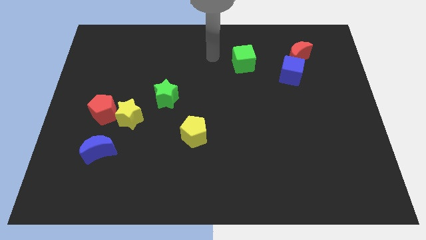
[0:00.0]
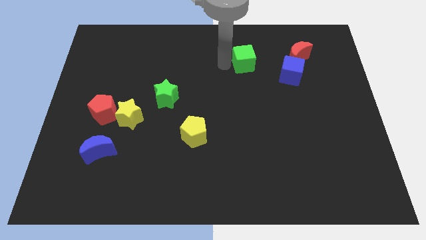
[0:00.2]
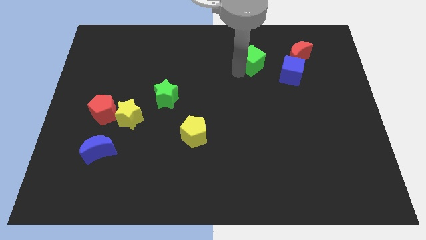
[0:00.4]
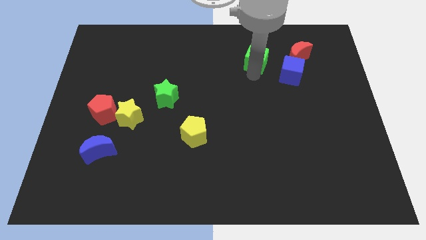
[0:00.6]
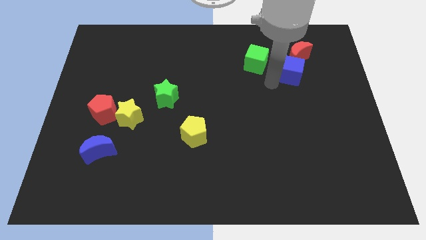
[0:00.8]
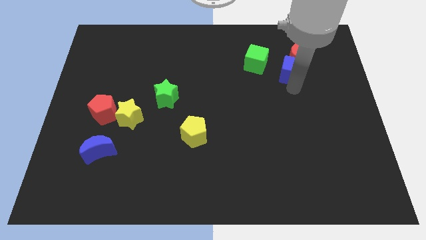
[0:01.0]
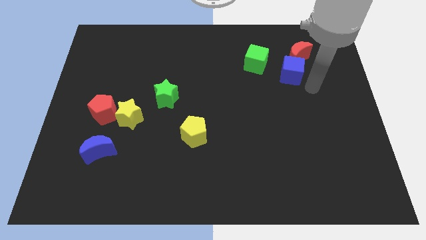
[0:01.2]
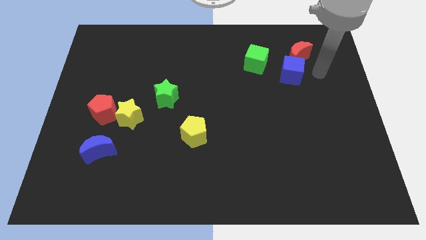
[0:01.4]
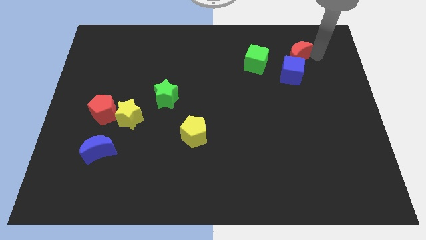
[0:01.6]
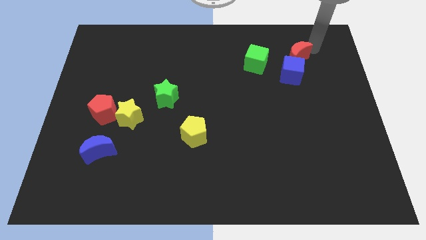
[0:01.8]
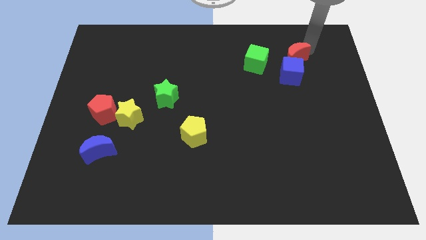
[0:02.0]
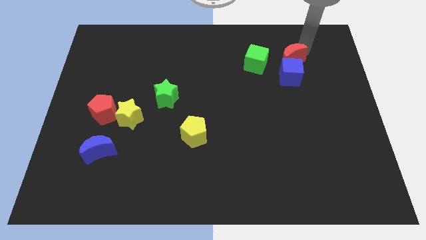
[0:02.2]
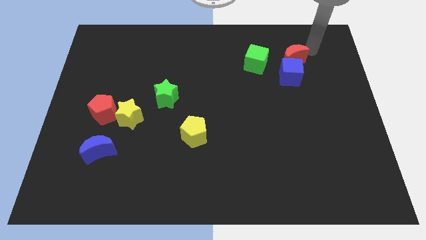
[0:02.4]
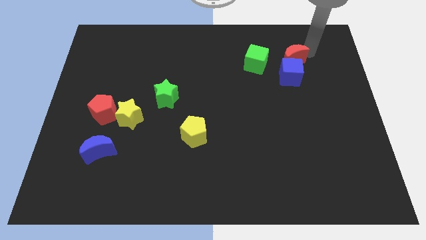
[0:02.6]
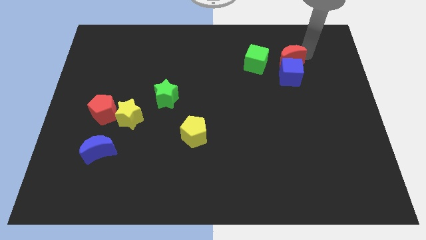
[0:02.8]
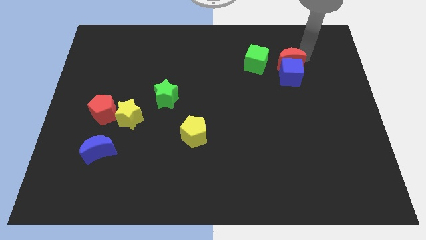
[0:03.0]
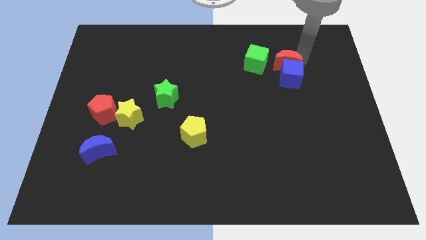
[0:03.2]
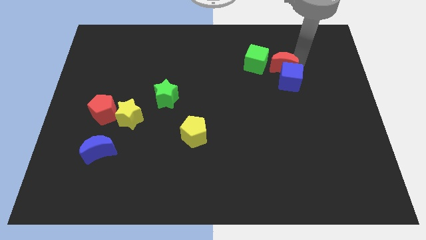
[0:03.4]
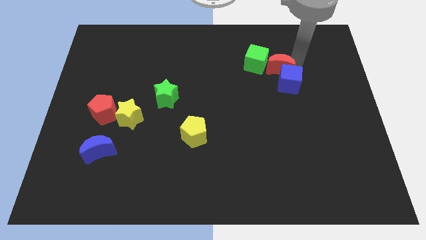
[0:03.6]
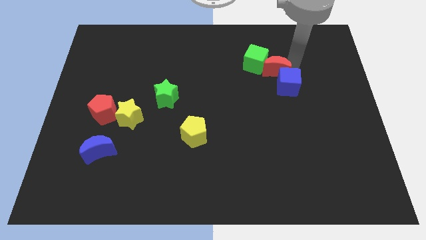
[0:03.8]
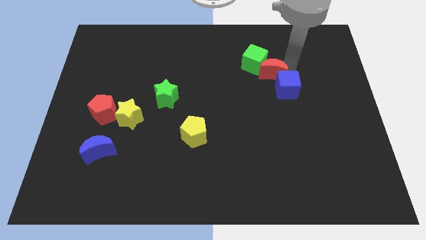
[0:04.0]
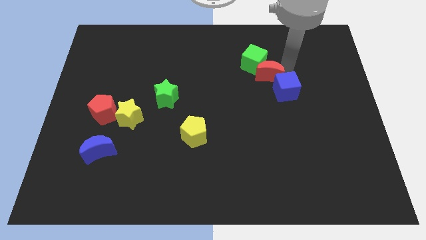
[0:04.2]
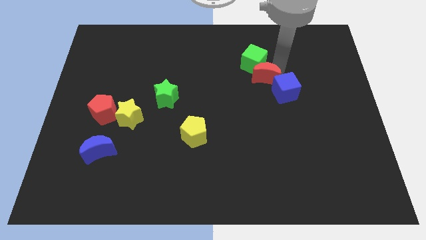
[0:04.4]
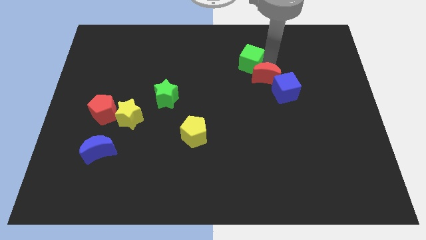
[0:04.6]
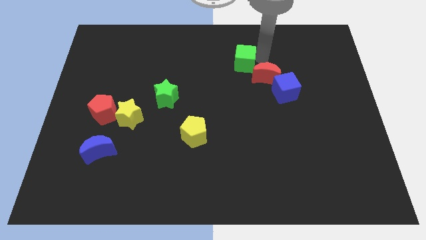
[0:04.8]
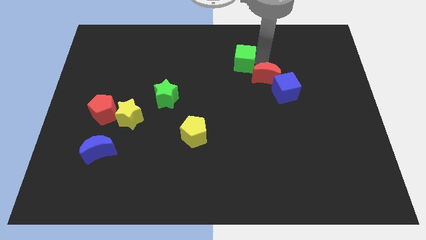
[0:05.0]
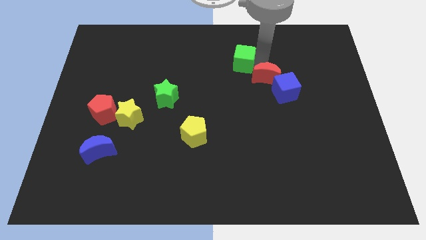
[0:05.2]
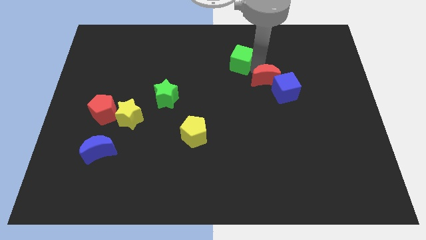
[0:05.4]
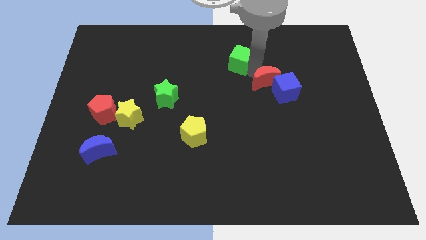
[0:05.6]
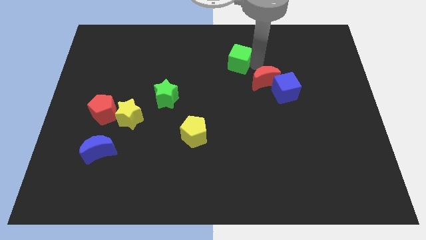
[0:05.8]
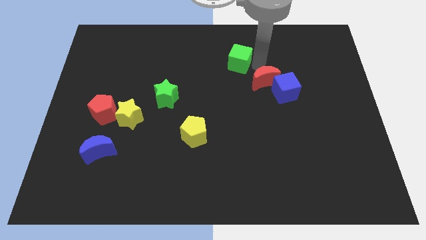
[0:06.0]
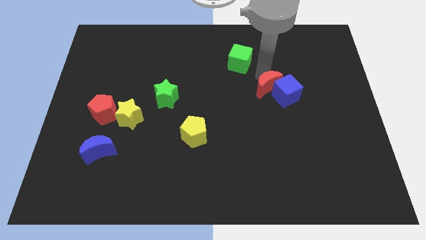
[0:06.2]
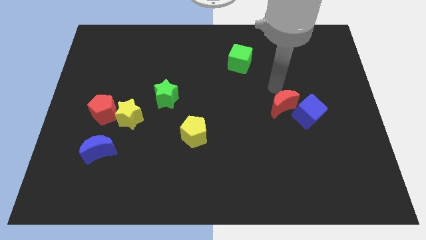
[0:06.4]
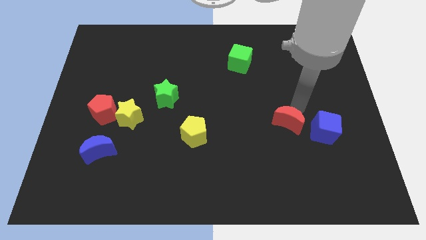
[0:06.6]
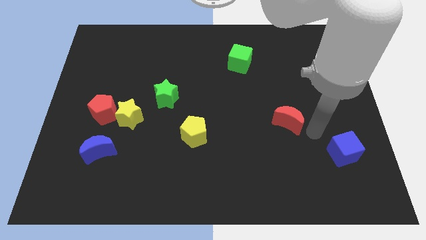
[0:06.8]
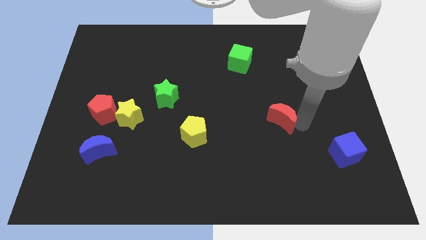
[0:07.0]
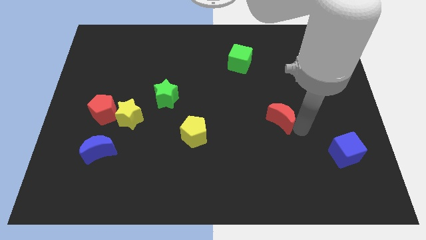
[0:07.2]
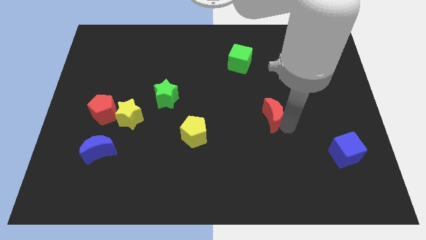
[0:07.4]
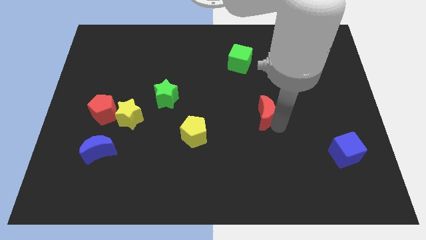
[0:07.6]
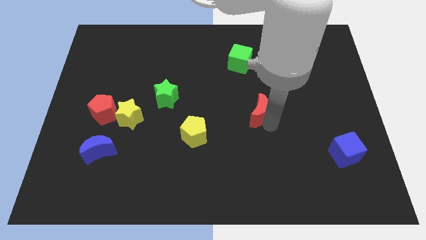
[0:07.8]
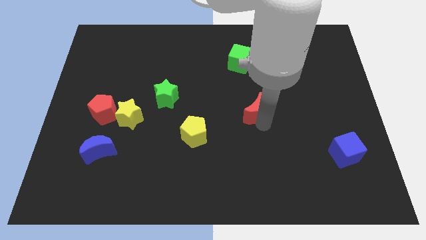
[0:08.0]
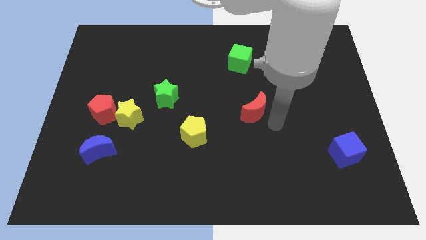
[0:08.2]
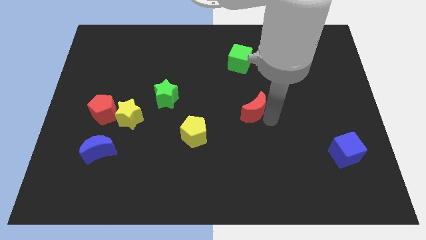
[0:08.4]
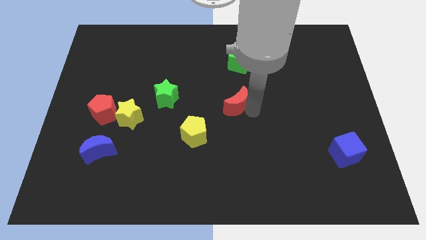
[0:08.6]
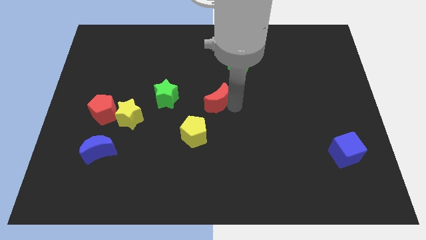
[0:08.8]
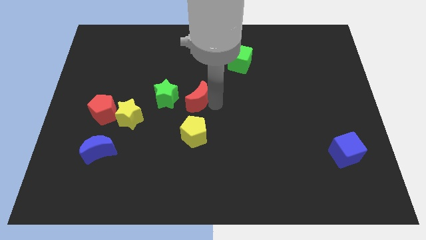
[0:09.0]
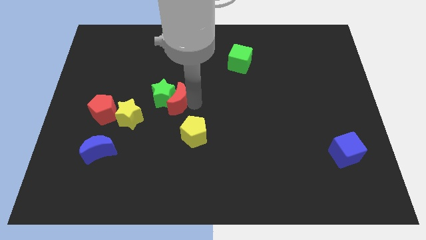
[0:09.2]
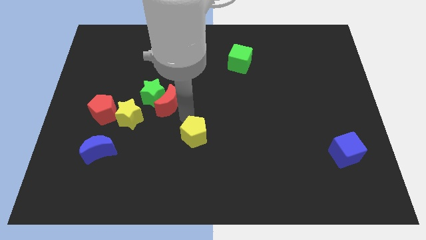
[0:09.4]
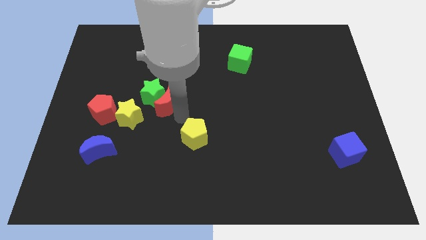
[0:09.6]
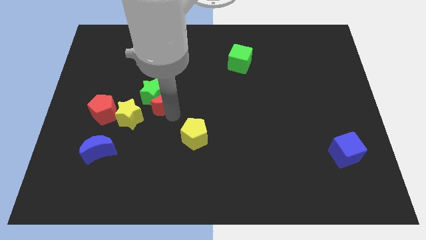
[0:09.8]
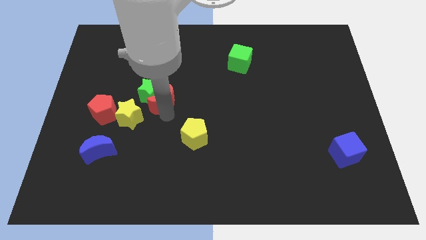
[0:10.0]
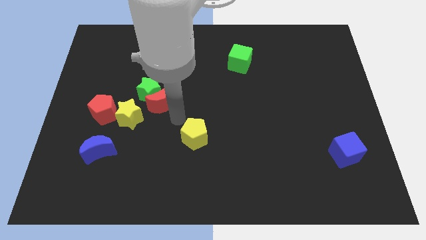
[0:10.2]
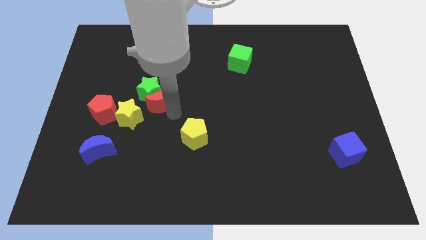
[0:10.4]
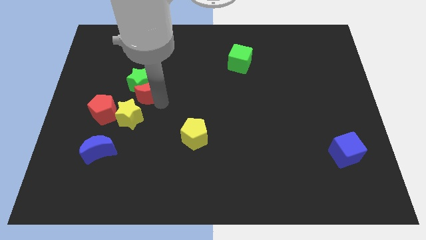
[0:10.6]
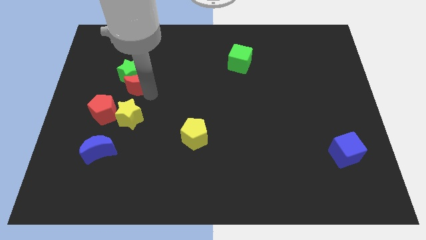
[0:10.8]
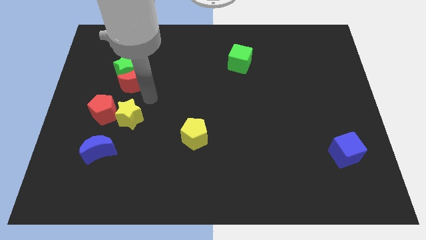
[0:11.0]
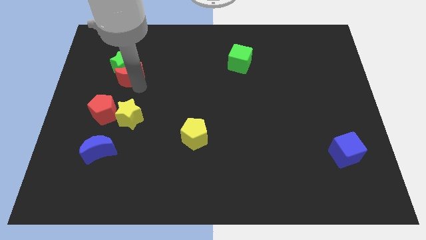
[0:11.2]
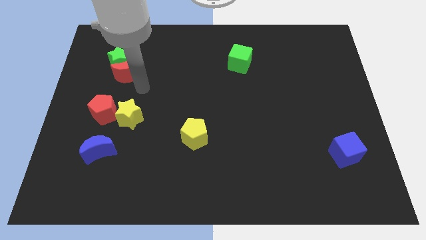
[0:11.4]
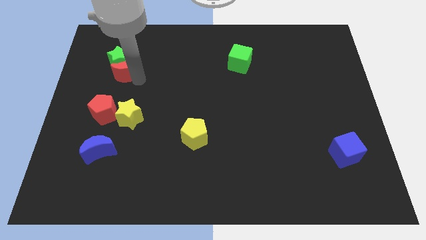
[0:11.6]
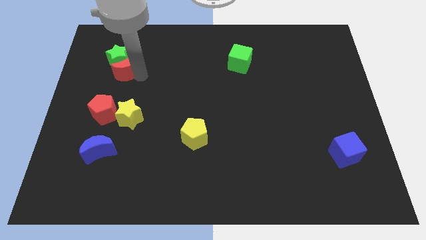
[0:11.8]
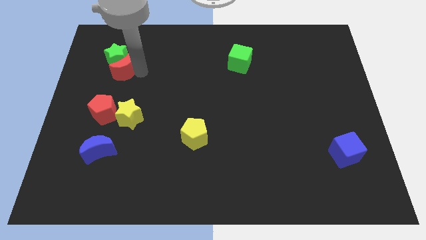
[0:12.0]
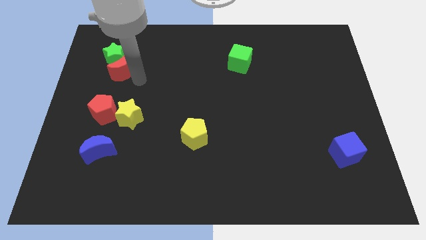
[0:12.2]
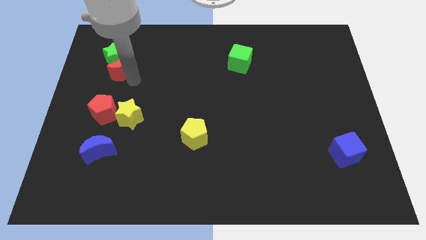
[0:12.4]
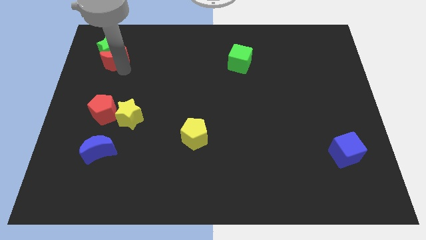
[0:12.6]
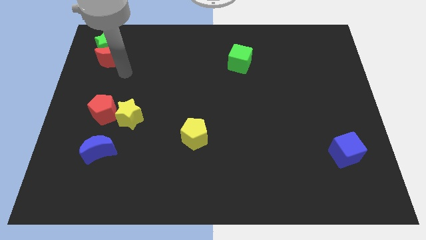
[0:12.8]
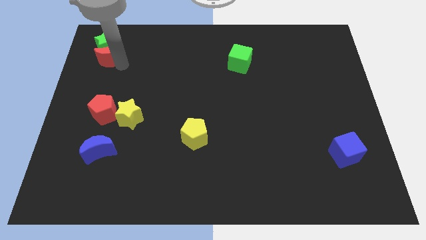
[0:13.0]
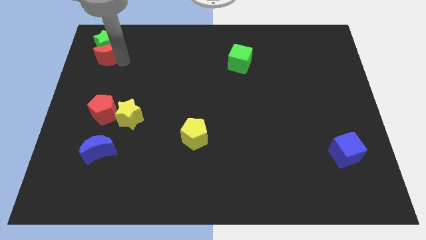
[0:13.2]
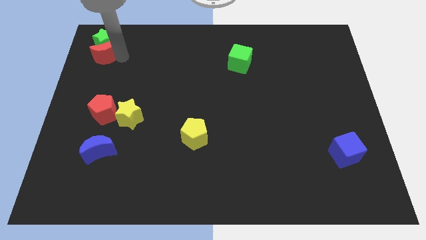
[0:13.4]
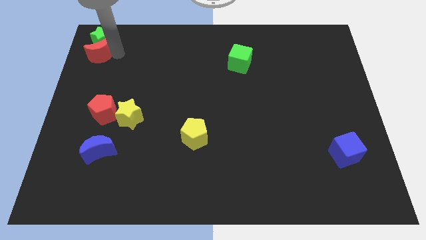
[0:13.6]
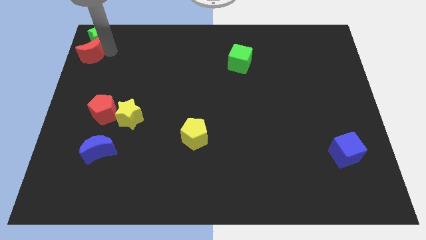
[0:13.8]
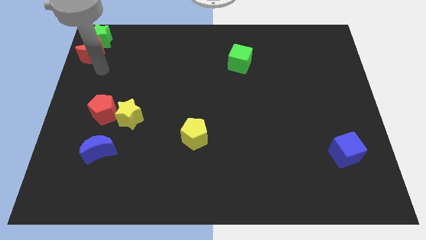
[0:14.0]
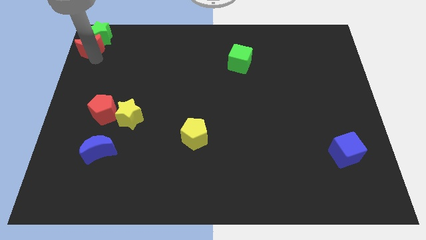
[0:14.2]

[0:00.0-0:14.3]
move the red moon to the top left corner

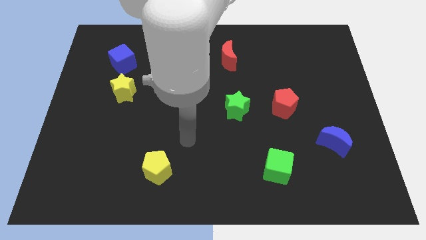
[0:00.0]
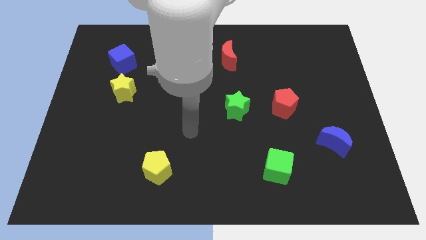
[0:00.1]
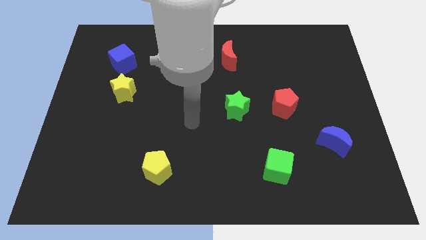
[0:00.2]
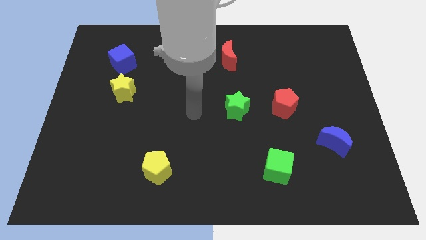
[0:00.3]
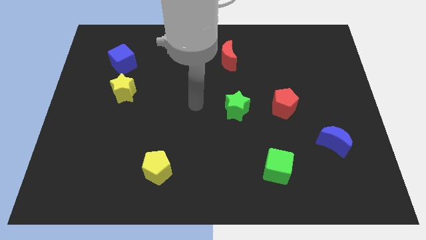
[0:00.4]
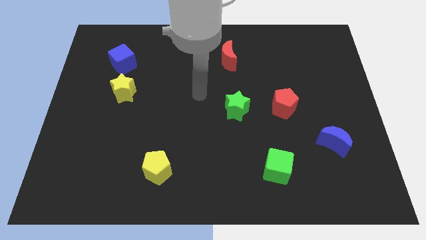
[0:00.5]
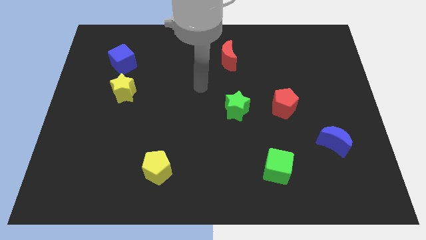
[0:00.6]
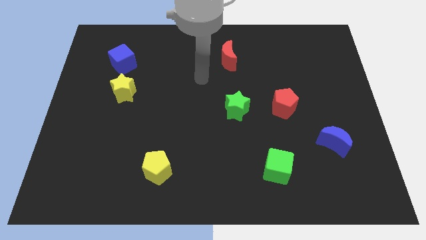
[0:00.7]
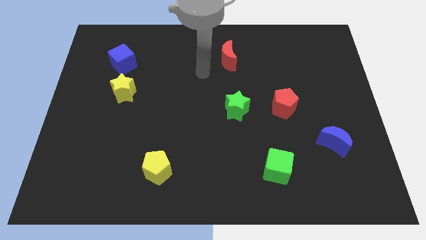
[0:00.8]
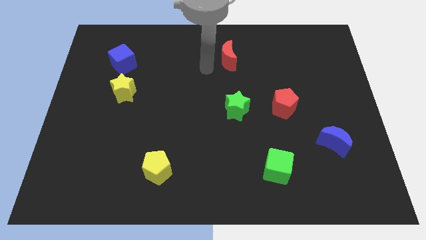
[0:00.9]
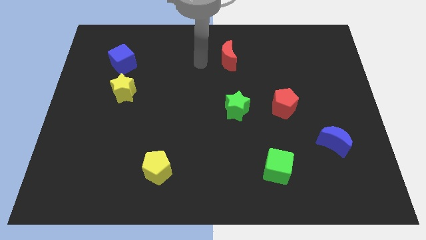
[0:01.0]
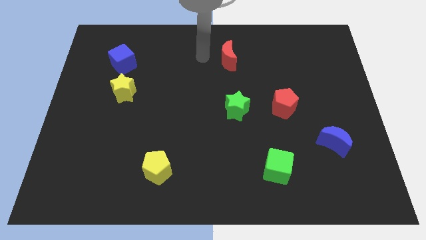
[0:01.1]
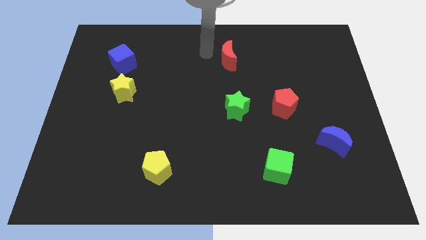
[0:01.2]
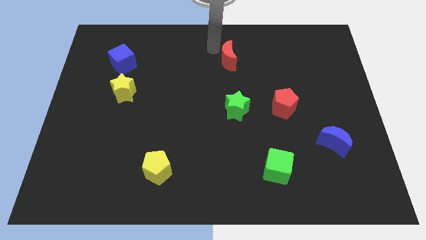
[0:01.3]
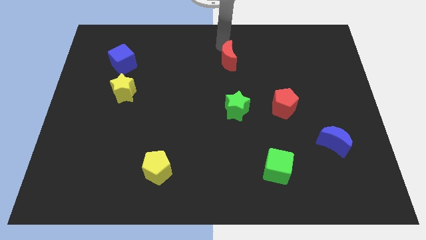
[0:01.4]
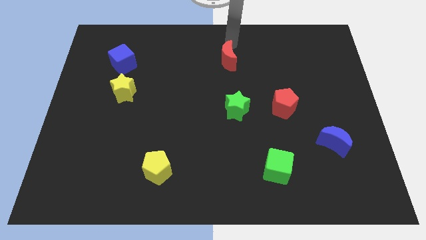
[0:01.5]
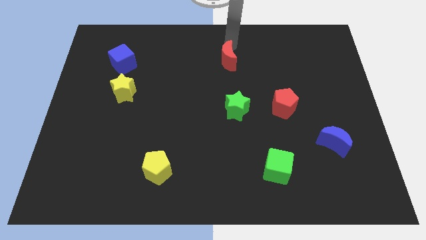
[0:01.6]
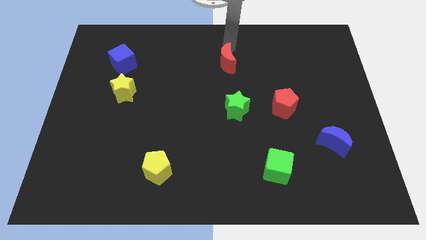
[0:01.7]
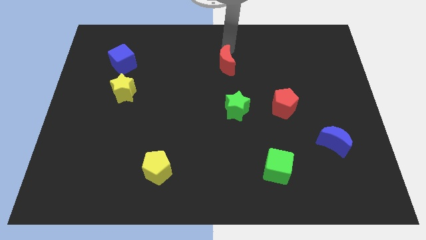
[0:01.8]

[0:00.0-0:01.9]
put the red moon to the center of the board
